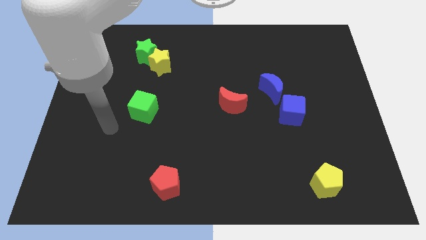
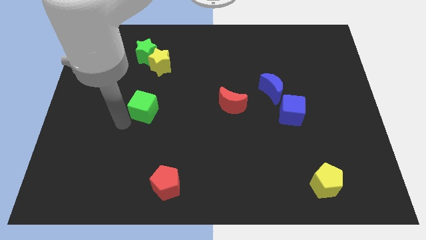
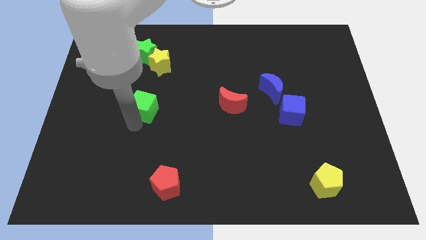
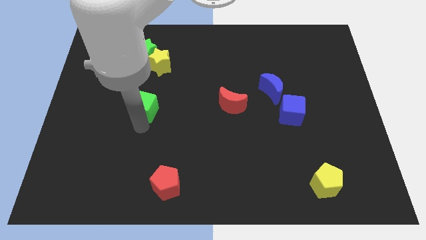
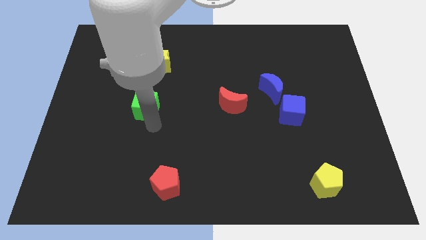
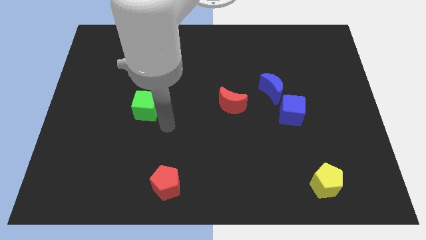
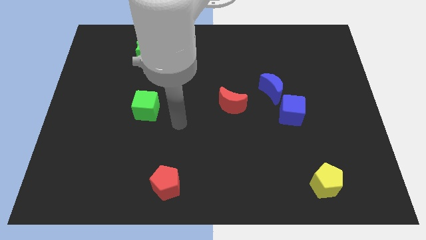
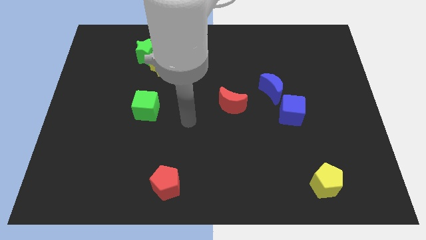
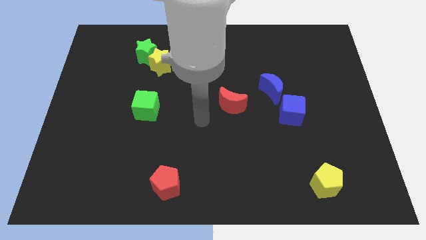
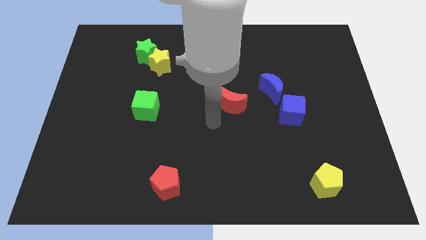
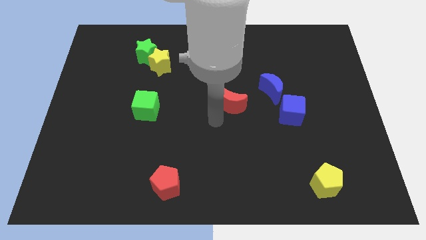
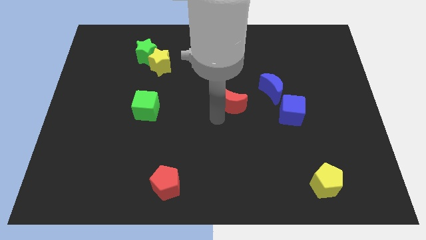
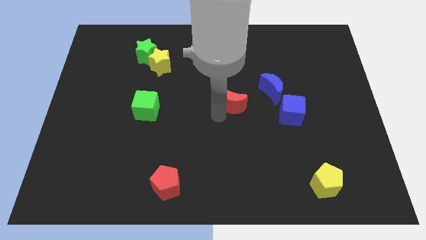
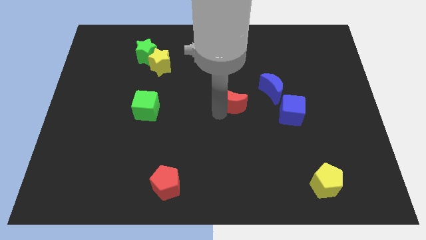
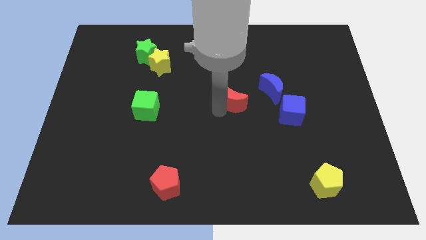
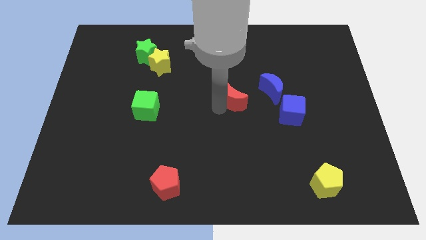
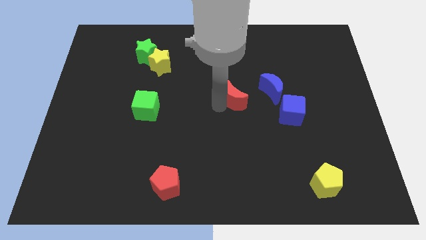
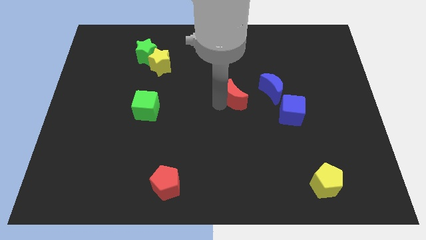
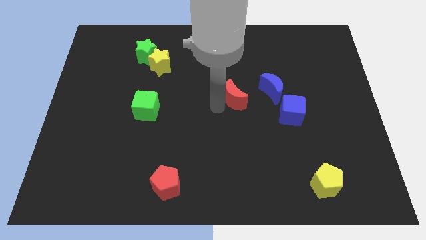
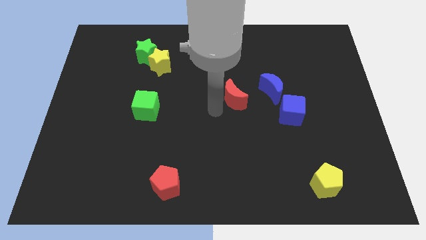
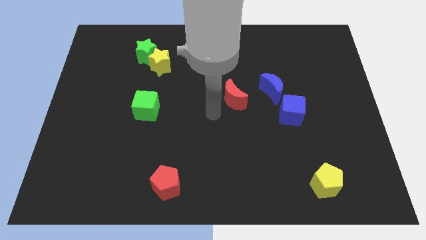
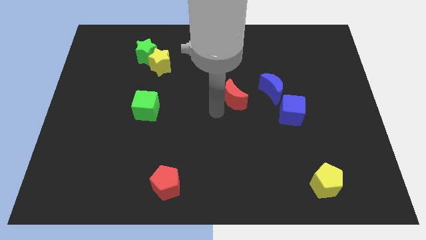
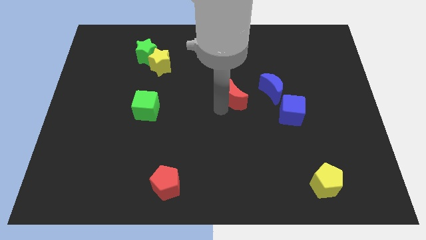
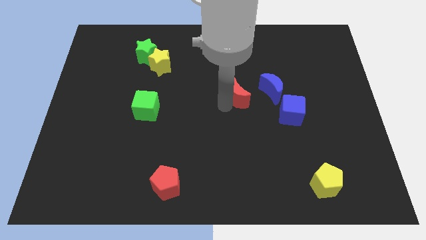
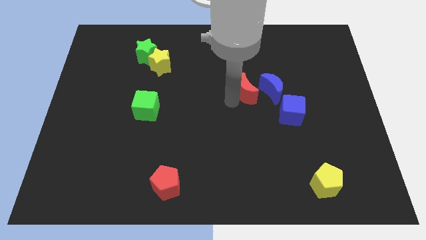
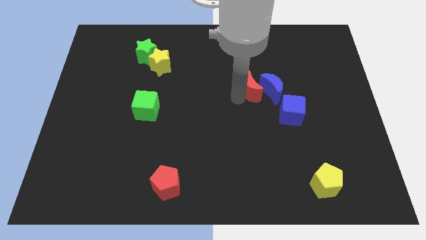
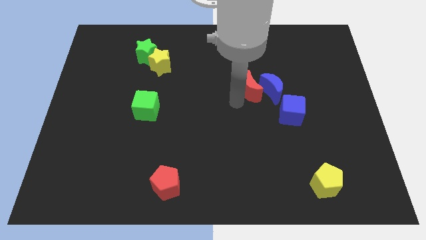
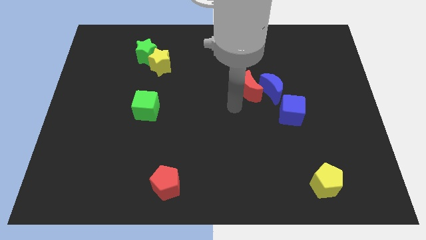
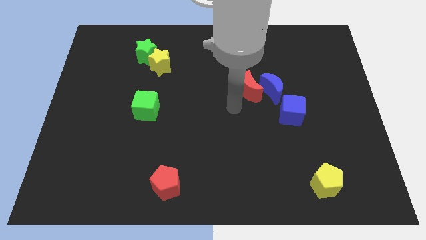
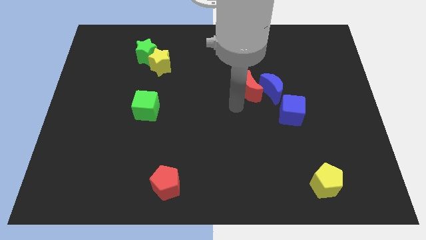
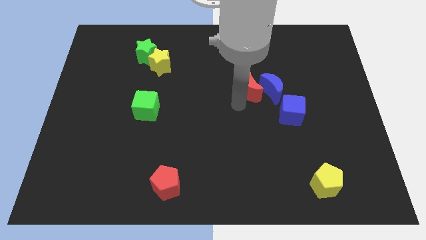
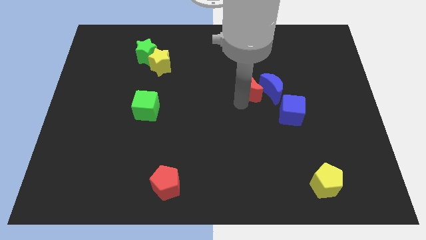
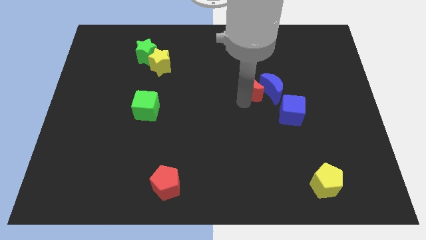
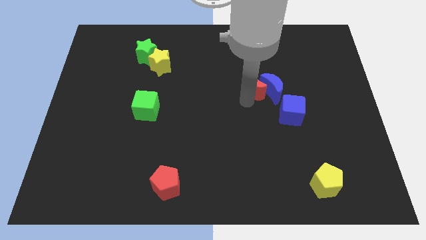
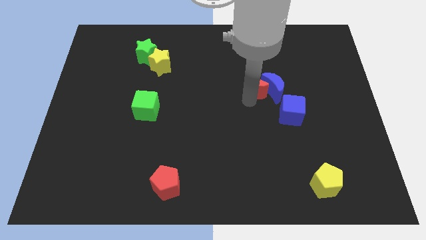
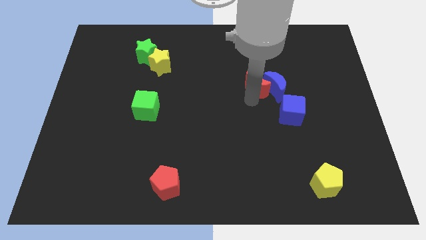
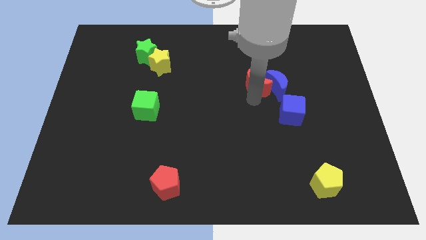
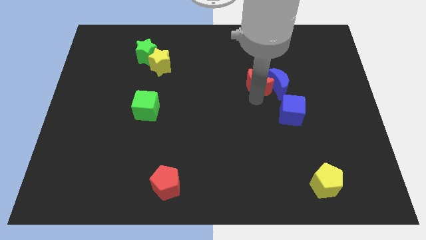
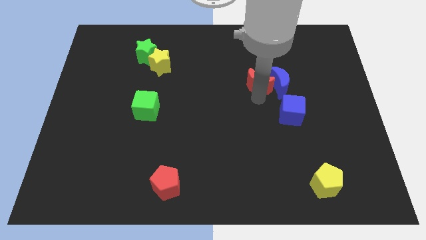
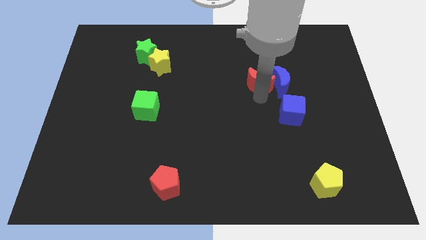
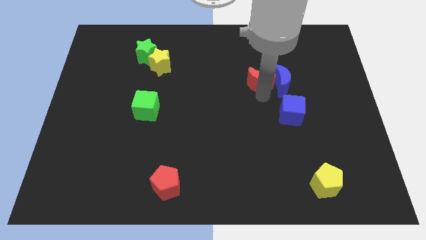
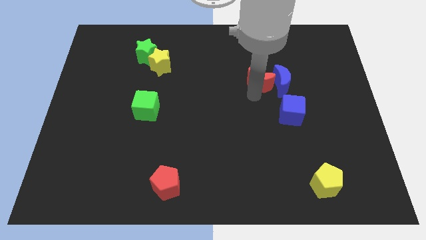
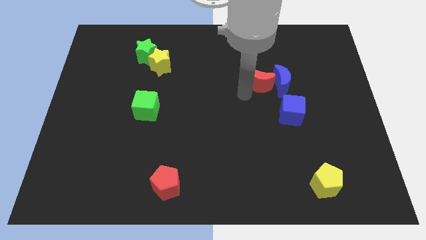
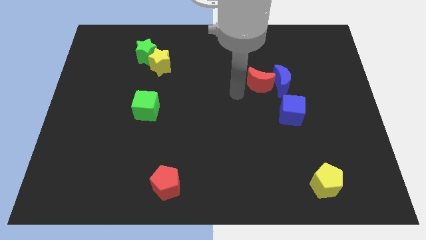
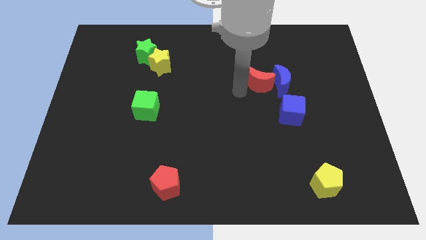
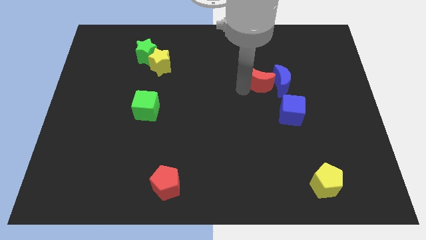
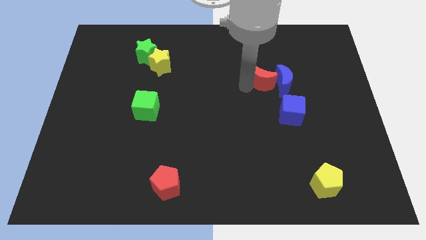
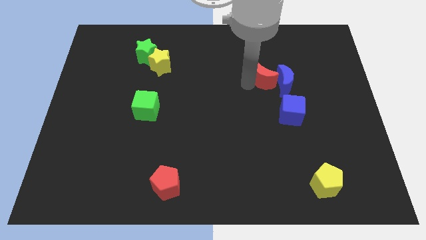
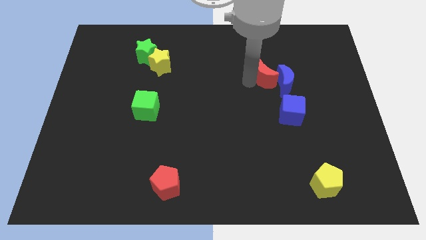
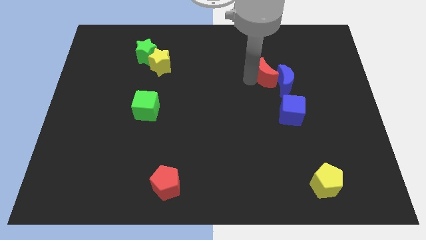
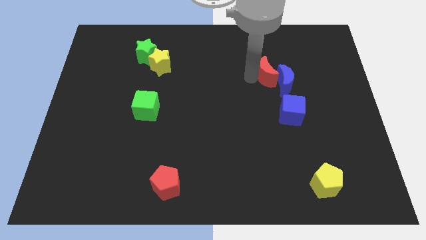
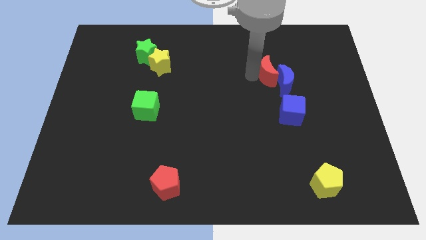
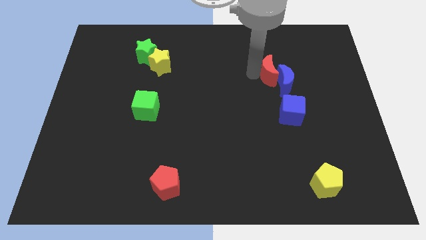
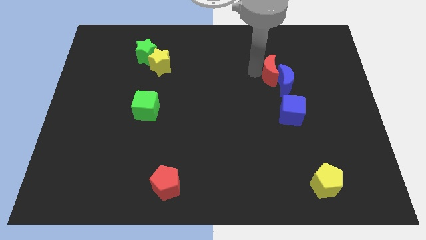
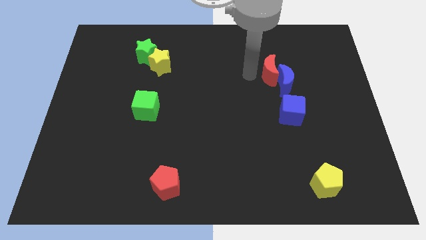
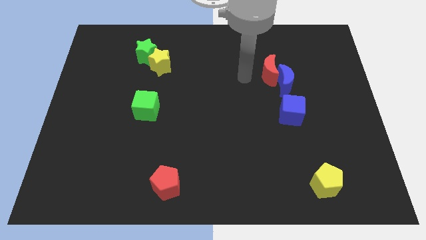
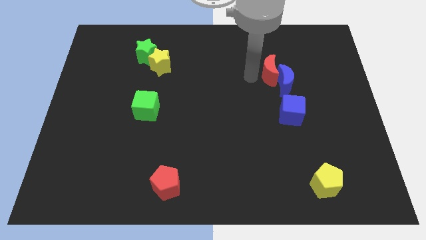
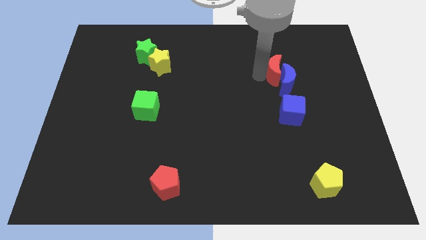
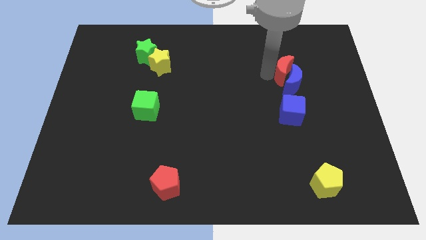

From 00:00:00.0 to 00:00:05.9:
put the red moon to the top right side of the blue moon

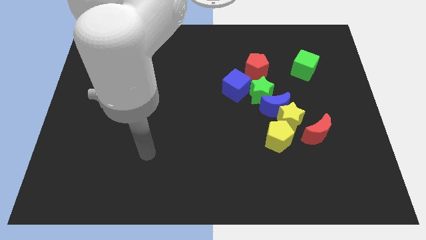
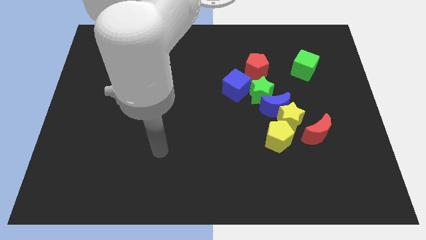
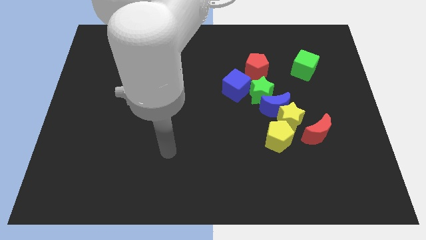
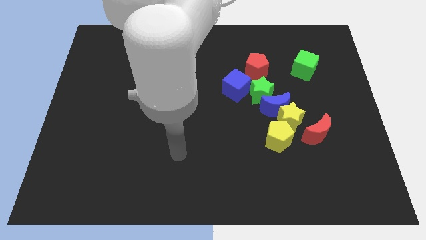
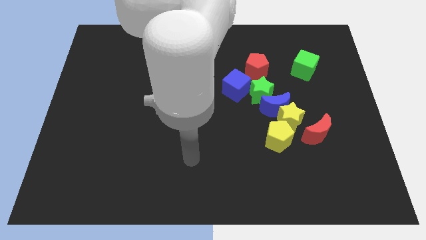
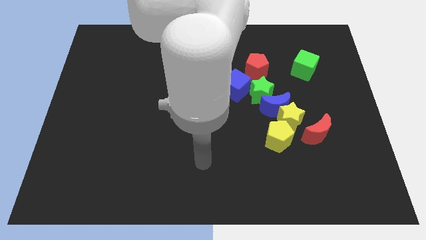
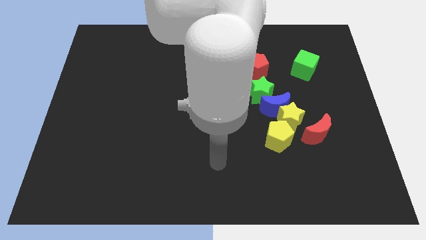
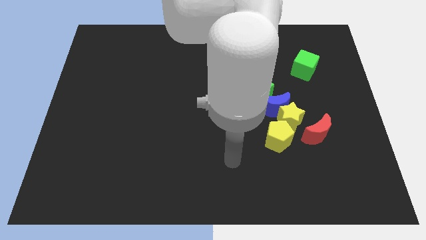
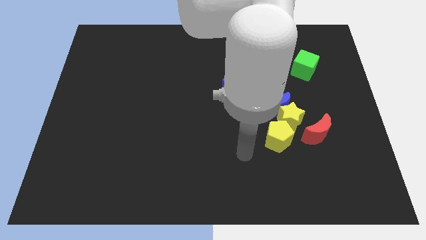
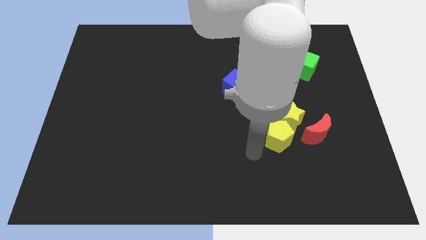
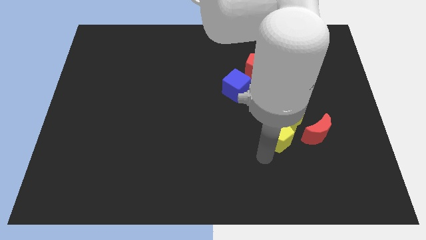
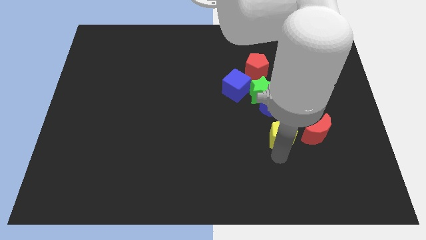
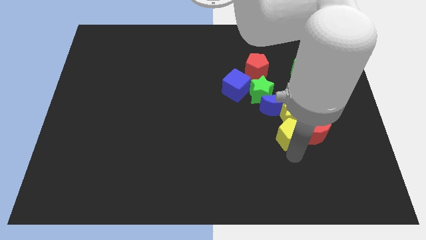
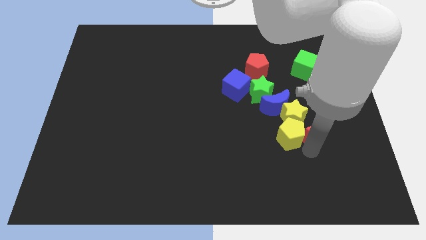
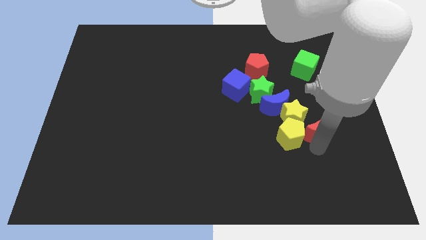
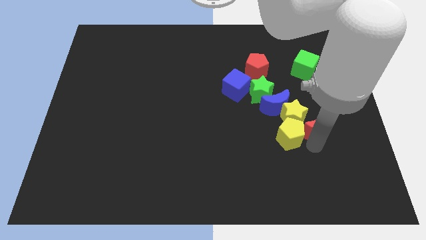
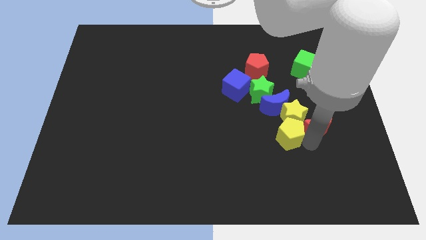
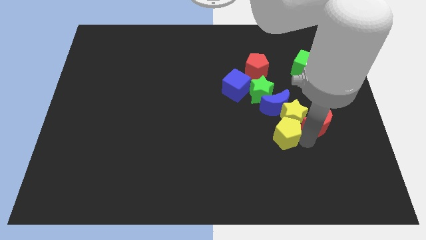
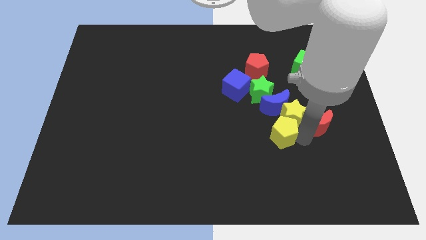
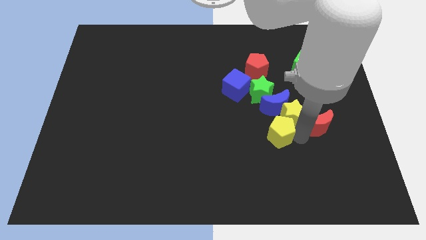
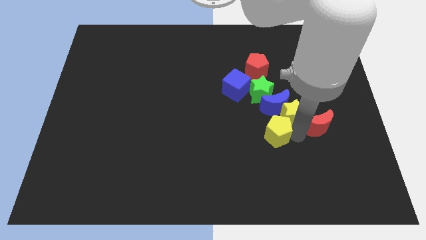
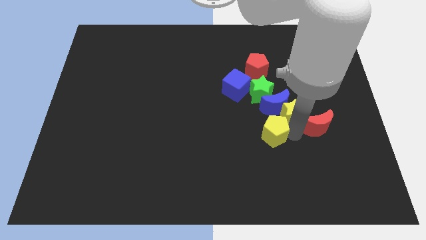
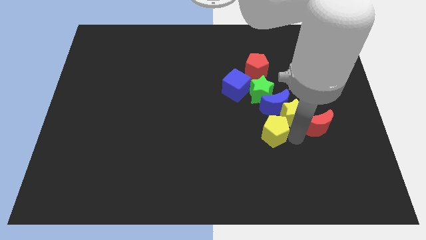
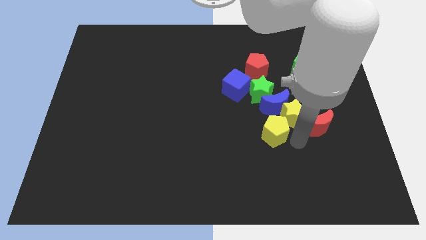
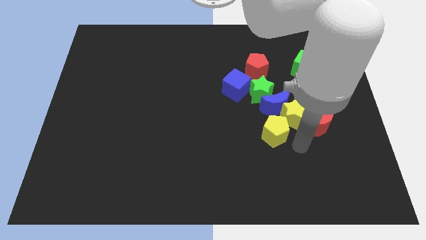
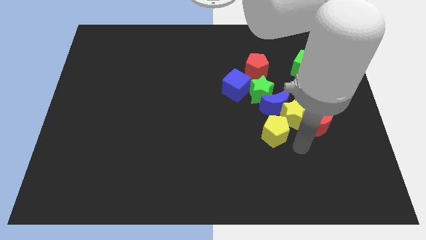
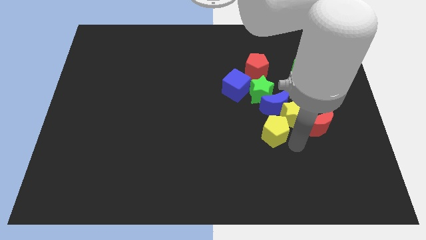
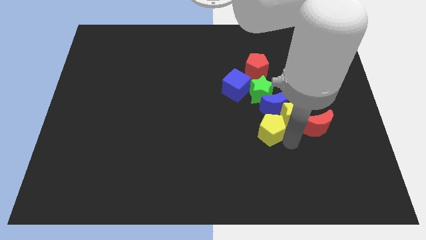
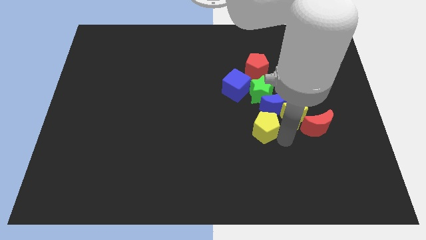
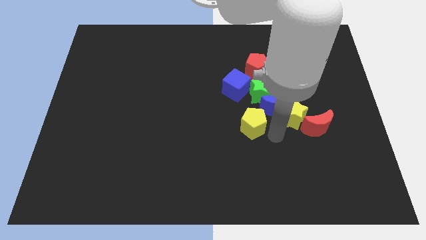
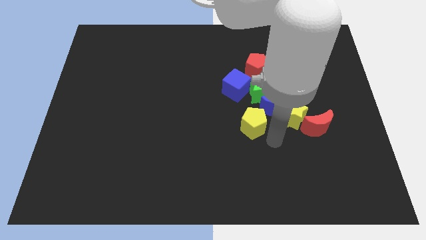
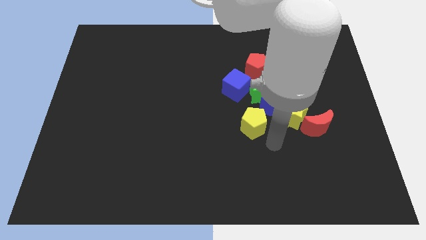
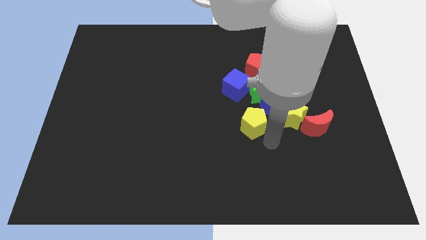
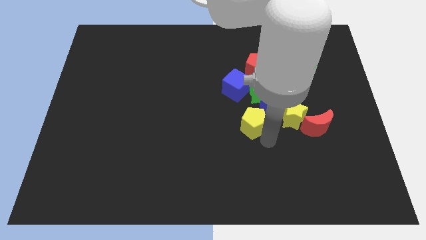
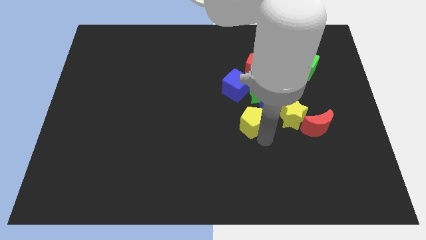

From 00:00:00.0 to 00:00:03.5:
put the yellow pentagon just left of the blue moon
